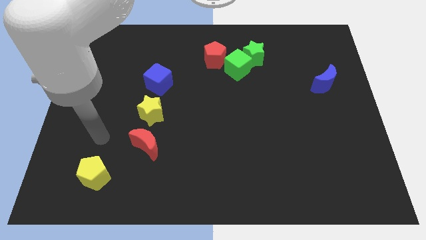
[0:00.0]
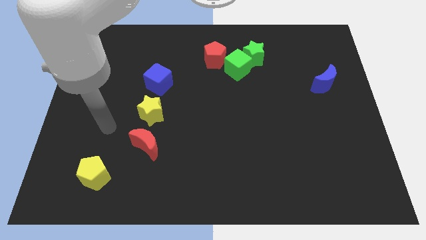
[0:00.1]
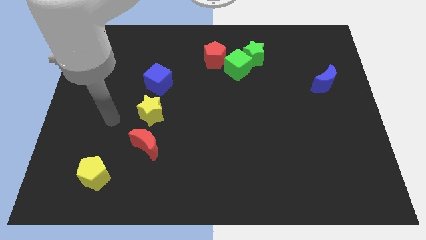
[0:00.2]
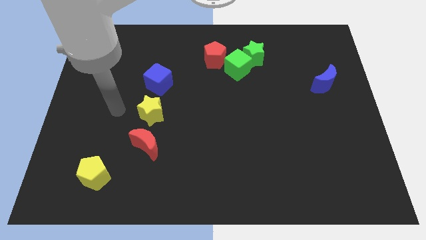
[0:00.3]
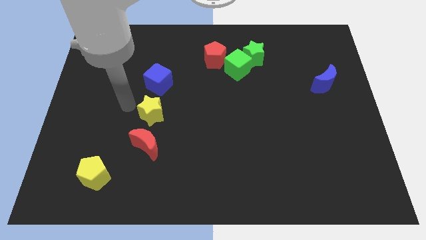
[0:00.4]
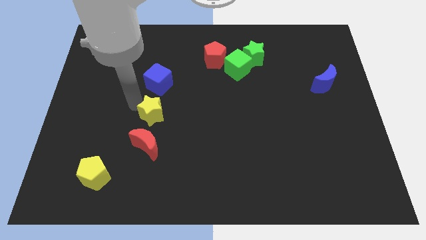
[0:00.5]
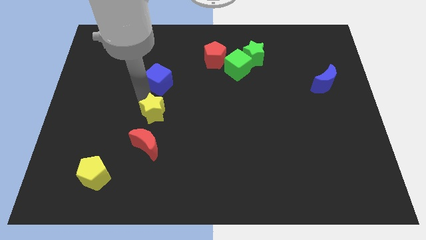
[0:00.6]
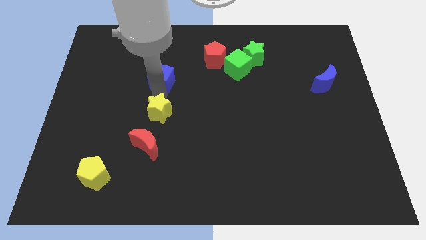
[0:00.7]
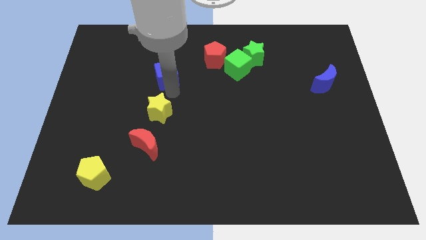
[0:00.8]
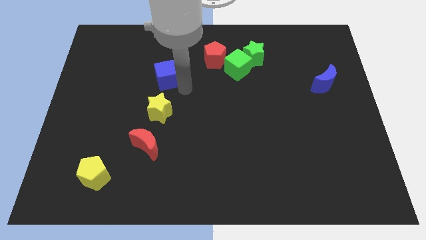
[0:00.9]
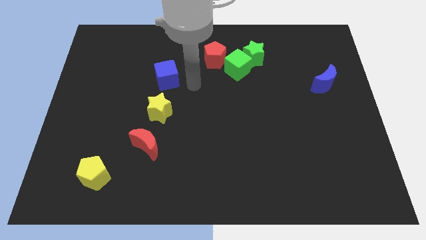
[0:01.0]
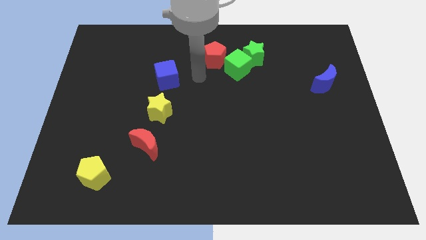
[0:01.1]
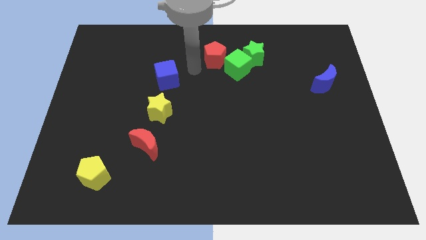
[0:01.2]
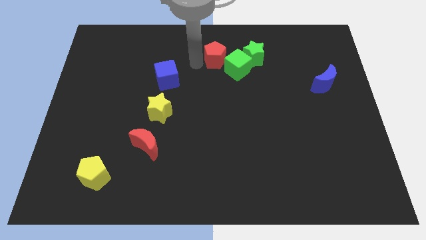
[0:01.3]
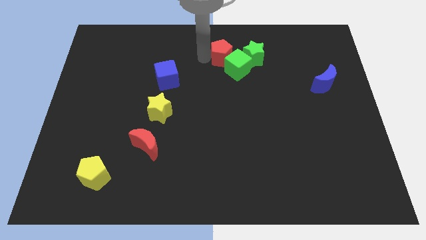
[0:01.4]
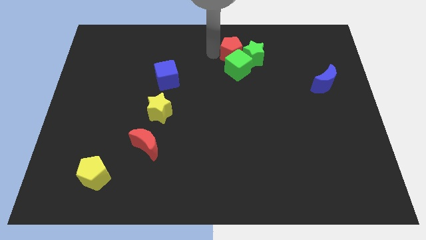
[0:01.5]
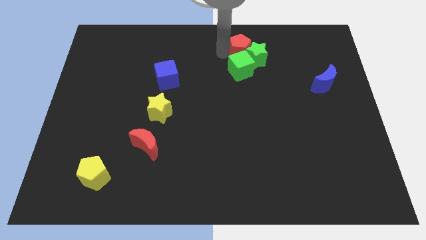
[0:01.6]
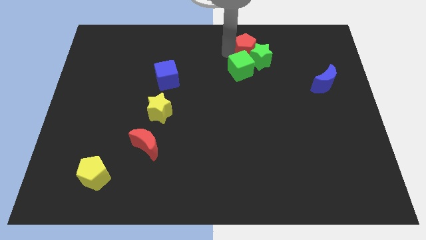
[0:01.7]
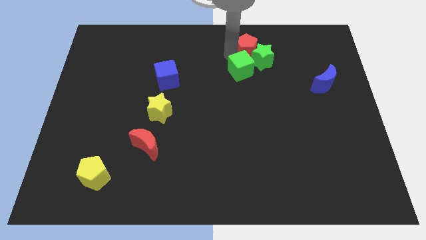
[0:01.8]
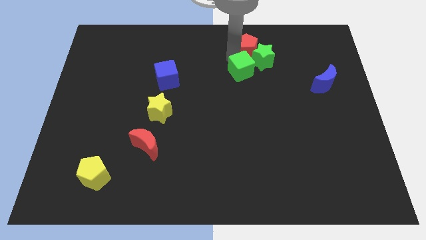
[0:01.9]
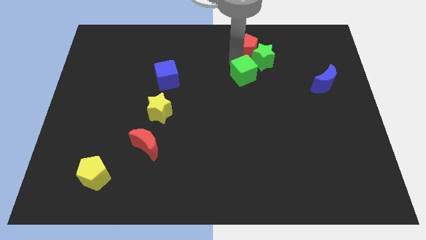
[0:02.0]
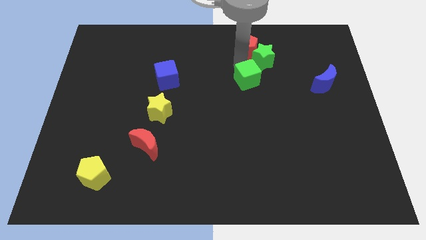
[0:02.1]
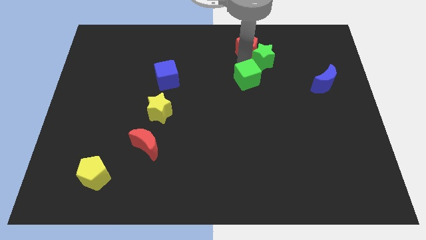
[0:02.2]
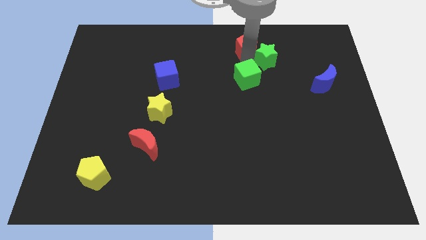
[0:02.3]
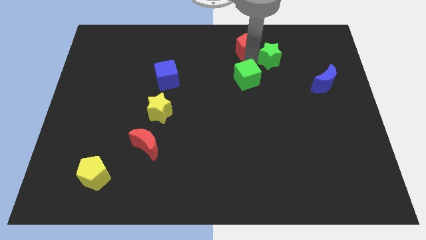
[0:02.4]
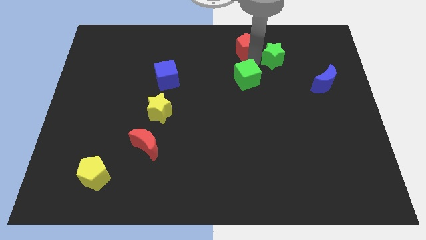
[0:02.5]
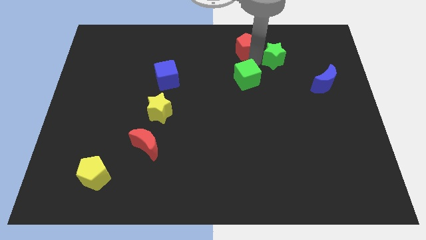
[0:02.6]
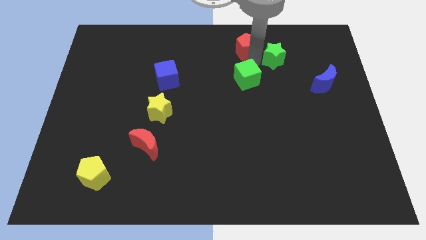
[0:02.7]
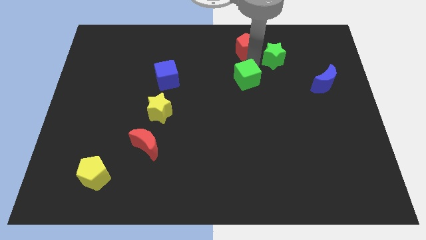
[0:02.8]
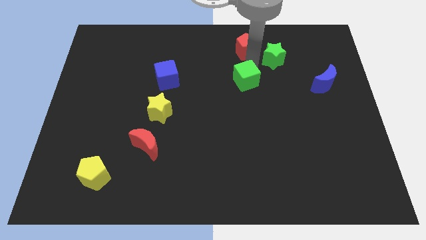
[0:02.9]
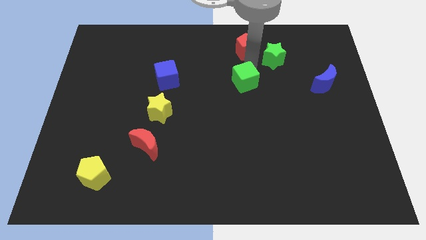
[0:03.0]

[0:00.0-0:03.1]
move the green cube away from the green star and red pentagon

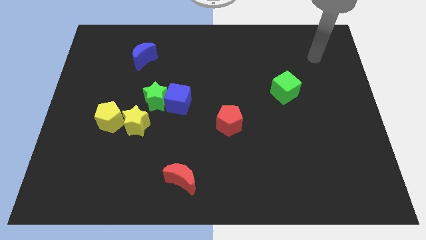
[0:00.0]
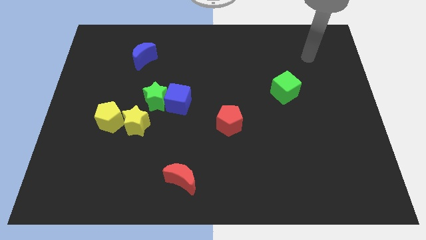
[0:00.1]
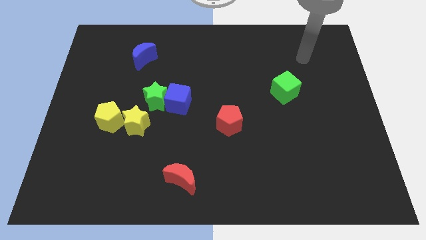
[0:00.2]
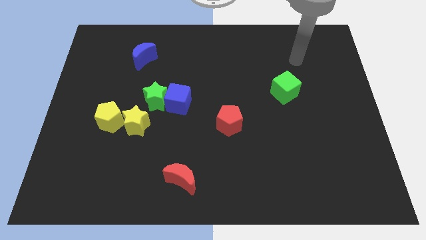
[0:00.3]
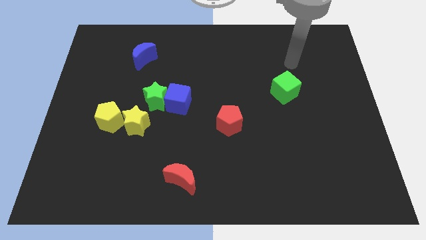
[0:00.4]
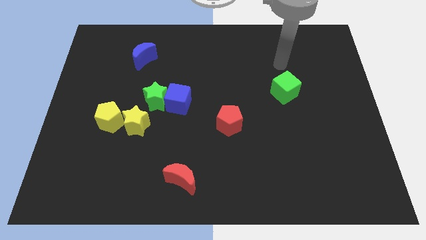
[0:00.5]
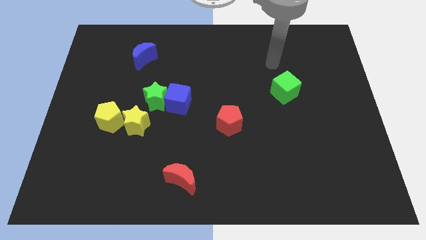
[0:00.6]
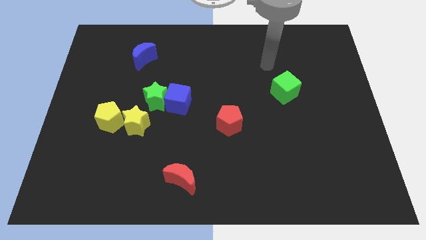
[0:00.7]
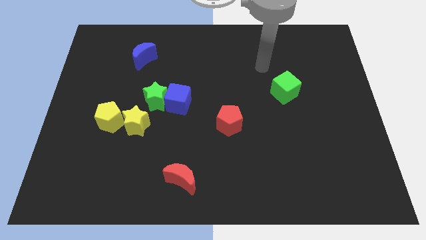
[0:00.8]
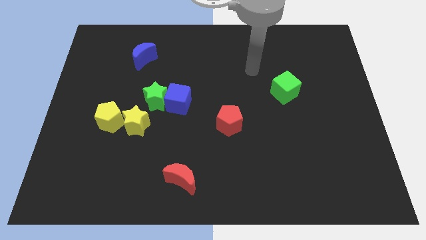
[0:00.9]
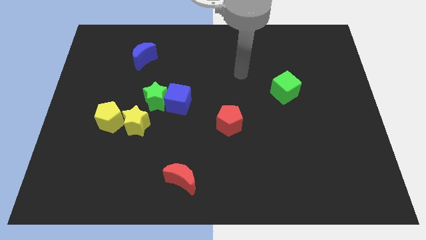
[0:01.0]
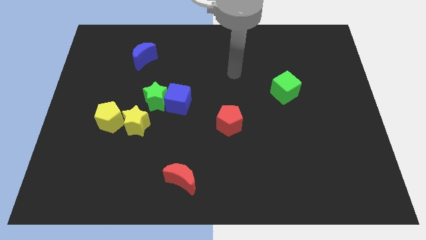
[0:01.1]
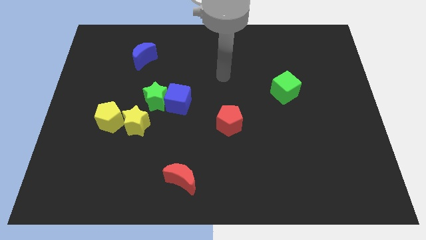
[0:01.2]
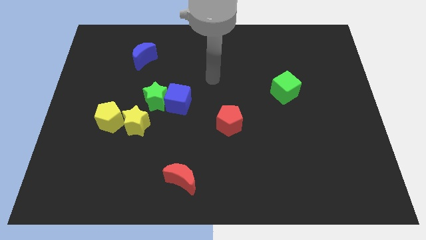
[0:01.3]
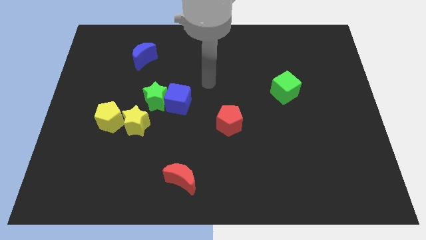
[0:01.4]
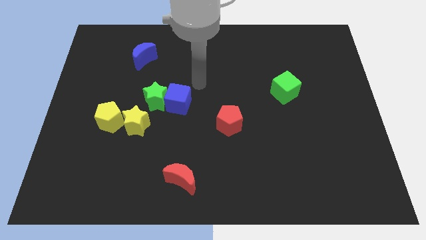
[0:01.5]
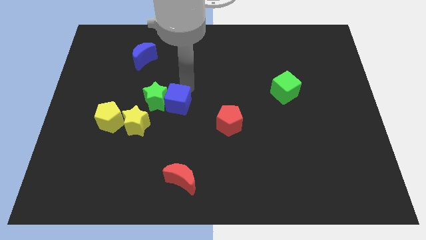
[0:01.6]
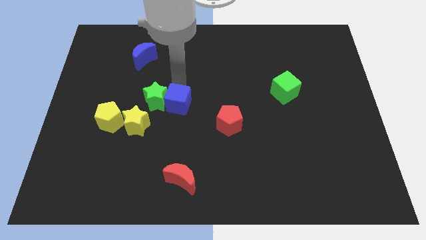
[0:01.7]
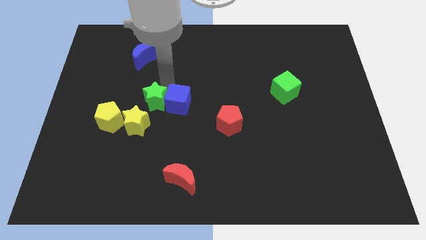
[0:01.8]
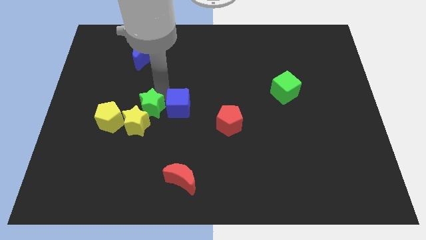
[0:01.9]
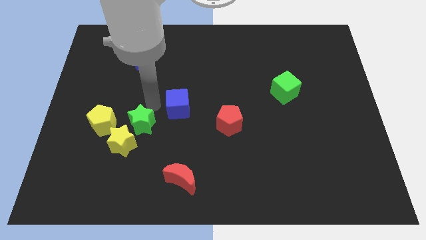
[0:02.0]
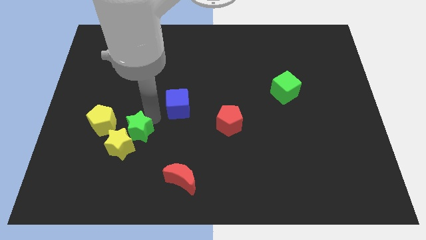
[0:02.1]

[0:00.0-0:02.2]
separate the blue cube from the green star

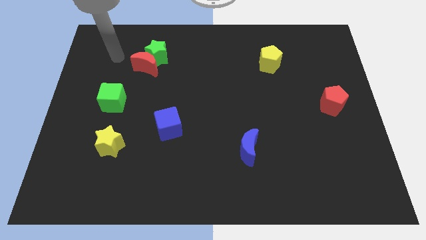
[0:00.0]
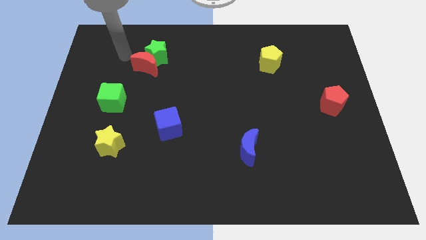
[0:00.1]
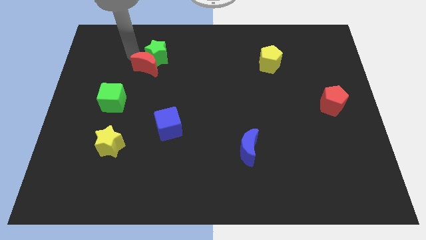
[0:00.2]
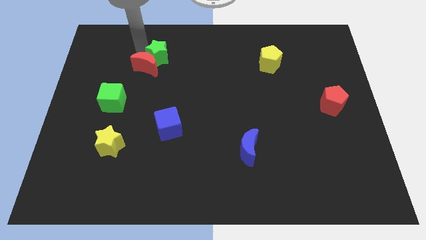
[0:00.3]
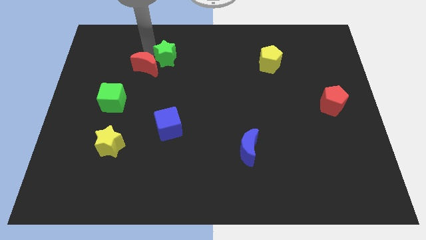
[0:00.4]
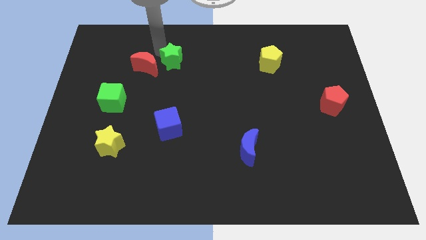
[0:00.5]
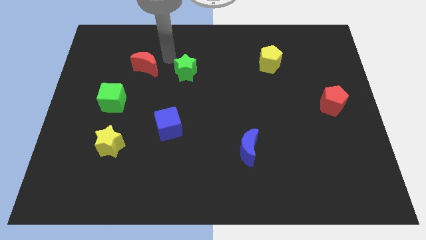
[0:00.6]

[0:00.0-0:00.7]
move the red moon away from the green star

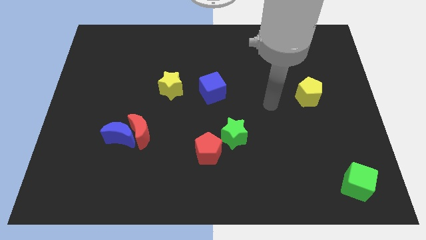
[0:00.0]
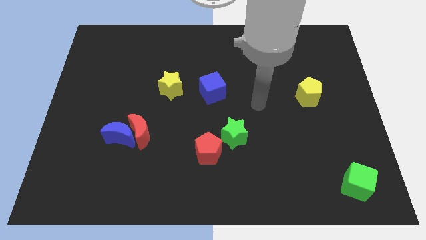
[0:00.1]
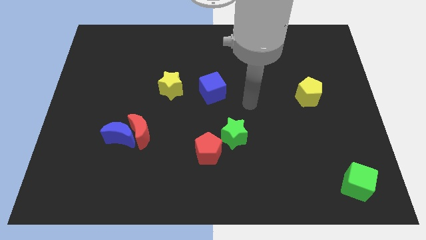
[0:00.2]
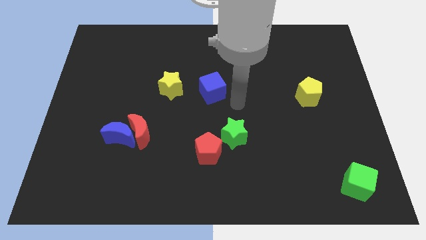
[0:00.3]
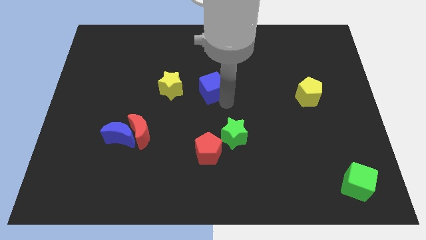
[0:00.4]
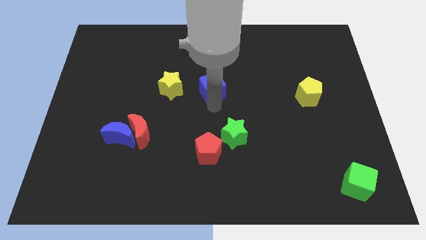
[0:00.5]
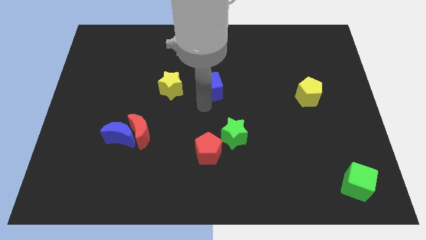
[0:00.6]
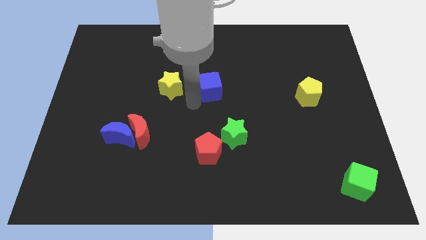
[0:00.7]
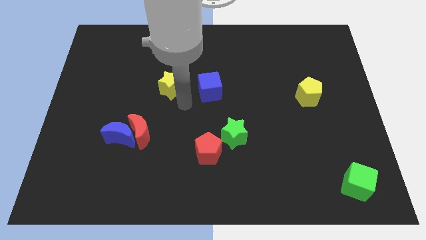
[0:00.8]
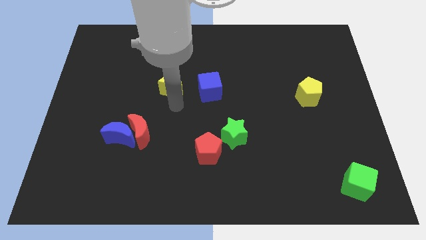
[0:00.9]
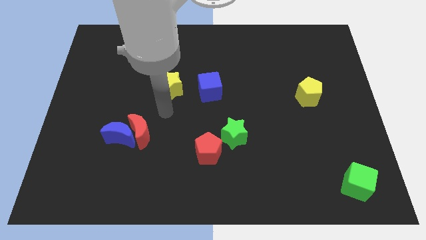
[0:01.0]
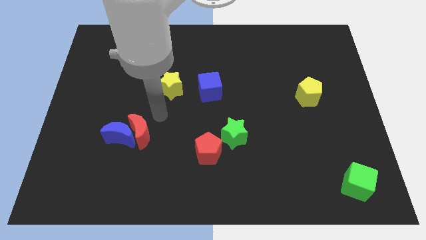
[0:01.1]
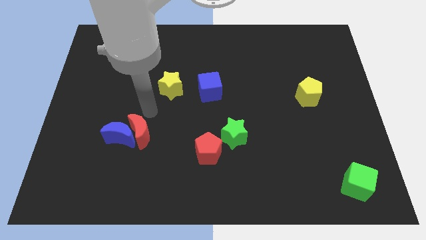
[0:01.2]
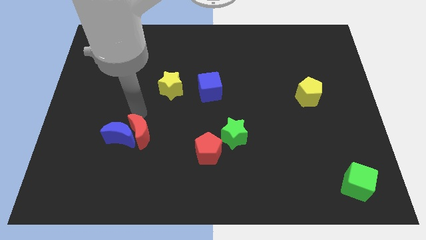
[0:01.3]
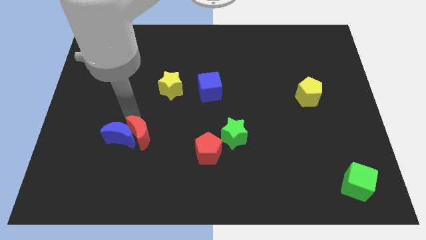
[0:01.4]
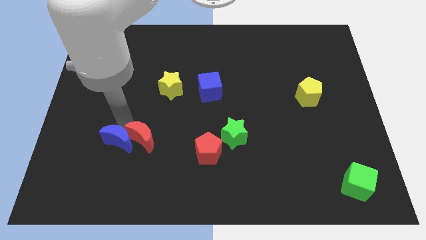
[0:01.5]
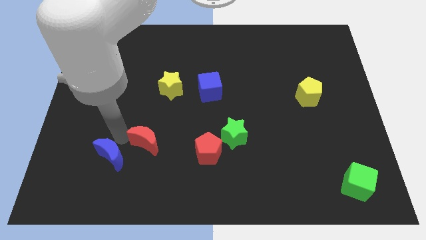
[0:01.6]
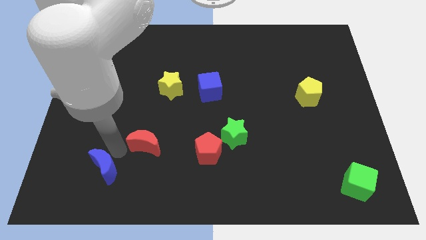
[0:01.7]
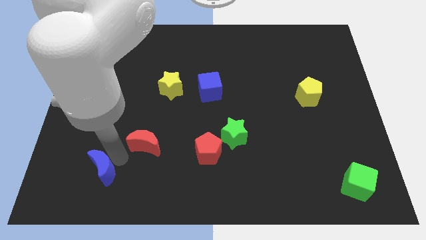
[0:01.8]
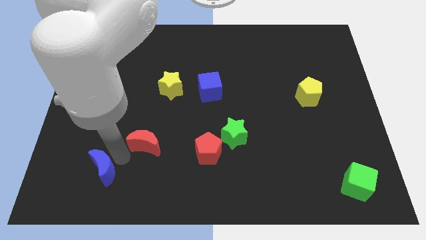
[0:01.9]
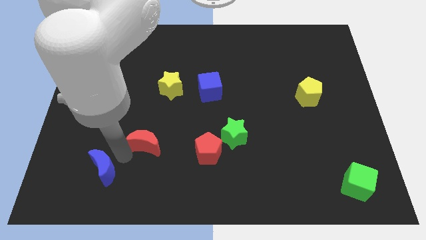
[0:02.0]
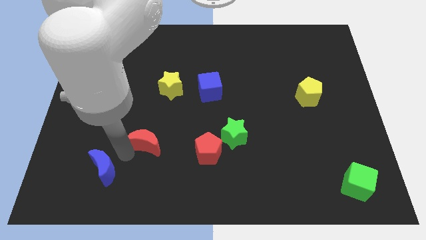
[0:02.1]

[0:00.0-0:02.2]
pull the red moon apart from the blue moon

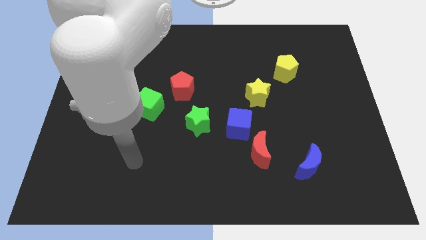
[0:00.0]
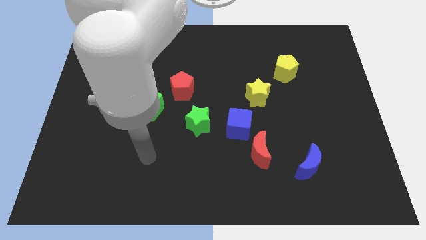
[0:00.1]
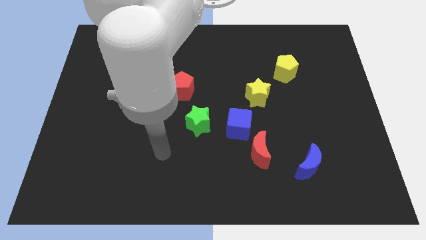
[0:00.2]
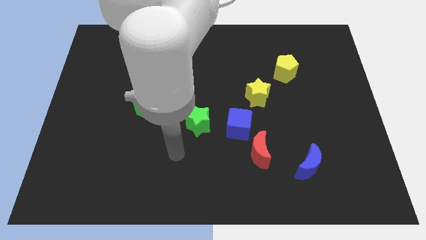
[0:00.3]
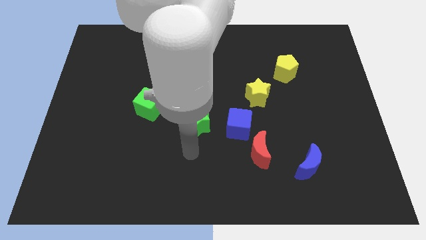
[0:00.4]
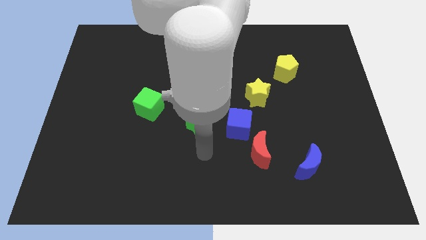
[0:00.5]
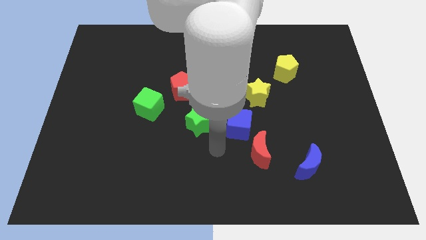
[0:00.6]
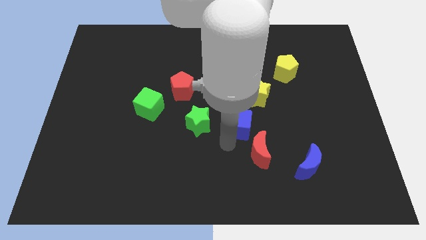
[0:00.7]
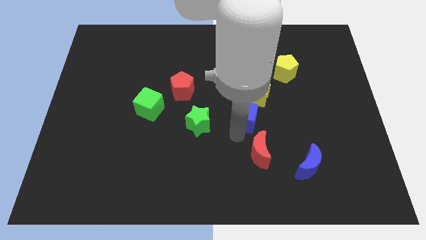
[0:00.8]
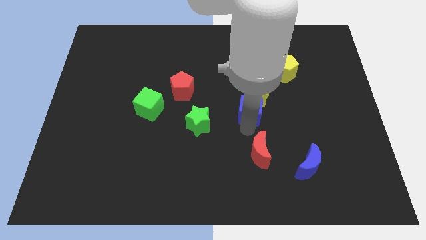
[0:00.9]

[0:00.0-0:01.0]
pull the red moon apart from the blue cube

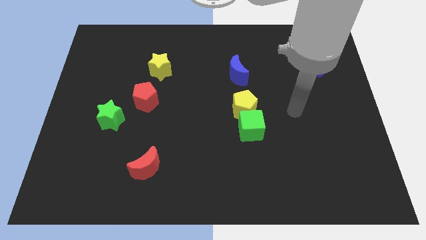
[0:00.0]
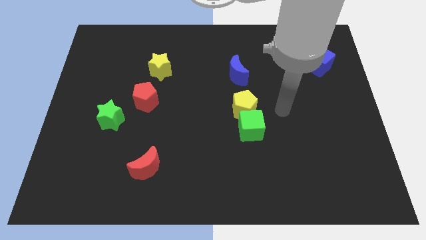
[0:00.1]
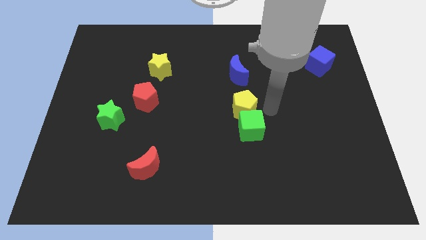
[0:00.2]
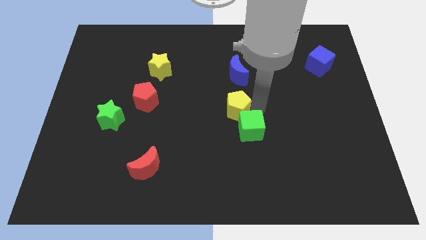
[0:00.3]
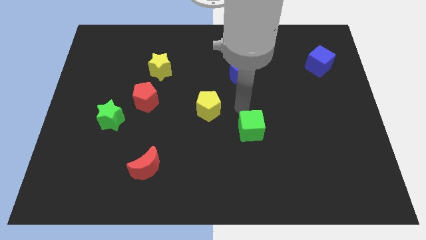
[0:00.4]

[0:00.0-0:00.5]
move the green cube away from the yellow pentagon
